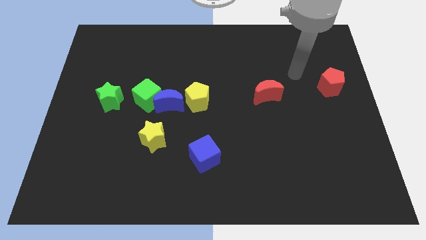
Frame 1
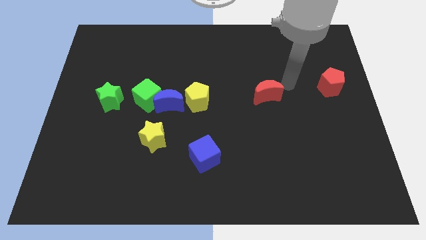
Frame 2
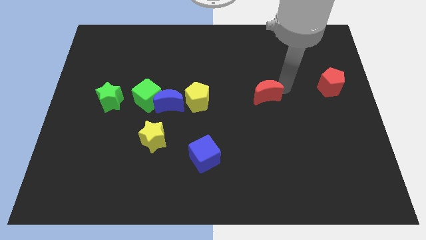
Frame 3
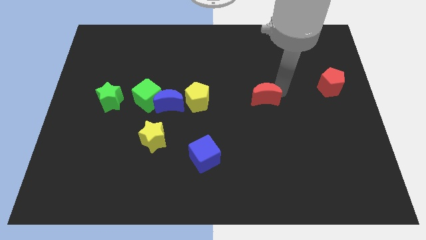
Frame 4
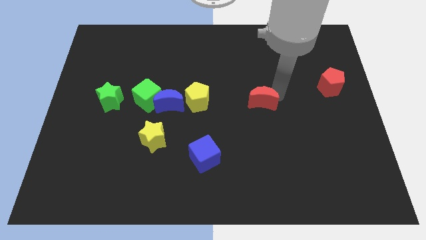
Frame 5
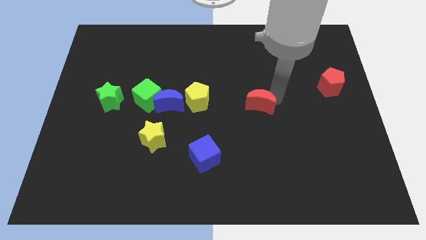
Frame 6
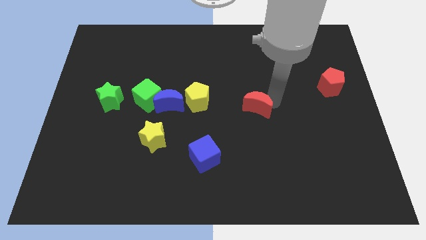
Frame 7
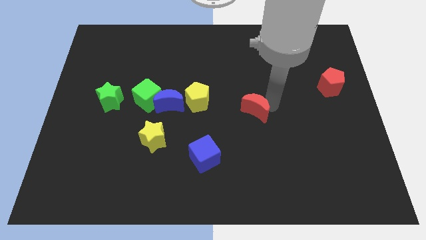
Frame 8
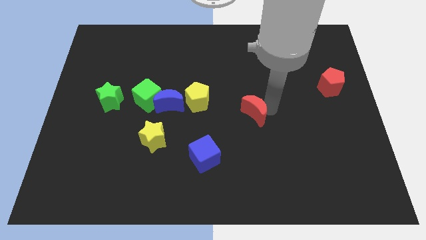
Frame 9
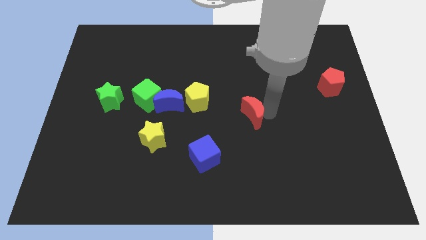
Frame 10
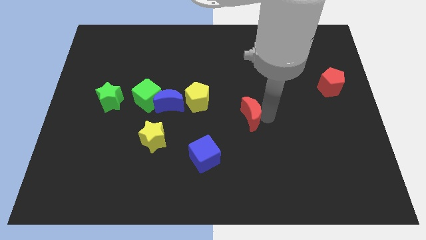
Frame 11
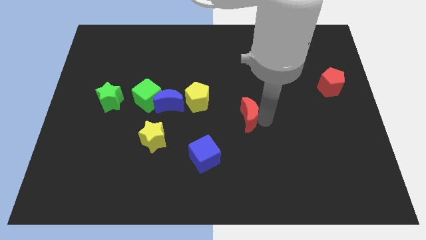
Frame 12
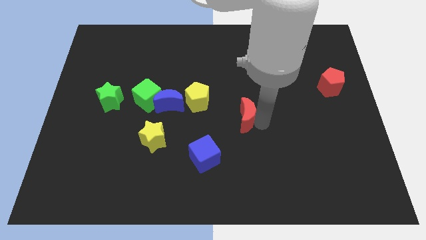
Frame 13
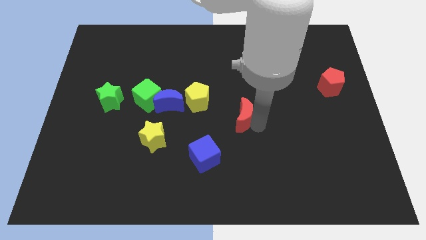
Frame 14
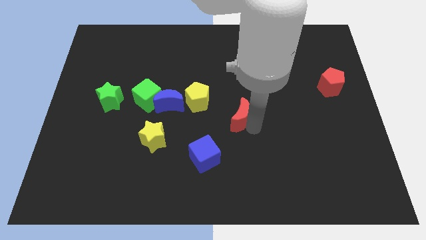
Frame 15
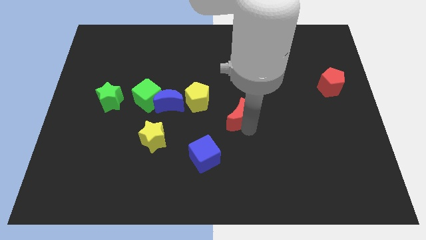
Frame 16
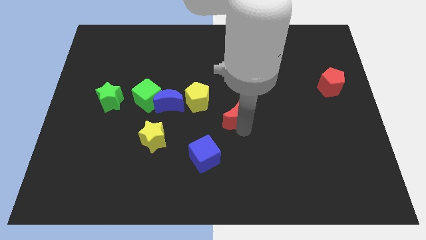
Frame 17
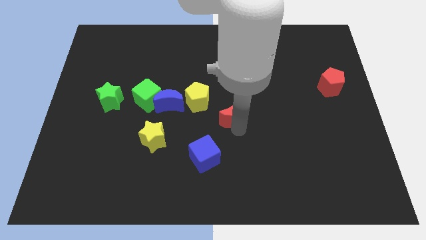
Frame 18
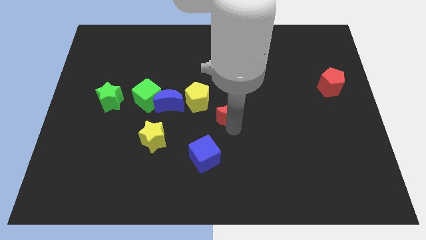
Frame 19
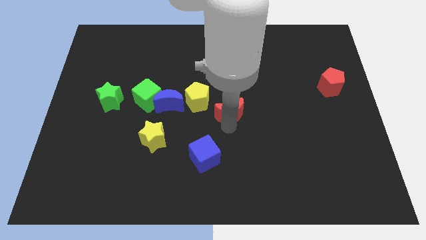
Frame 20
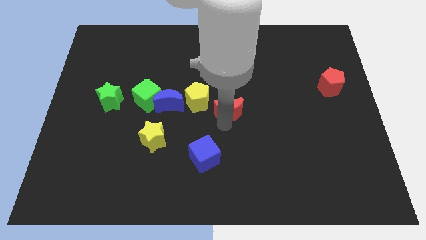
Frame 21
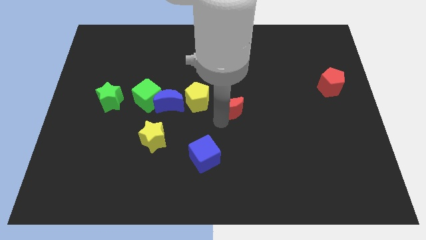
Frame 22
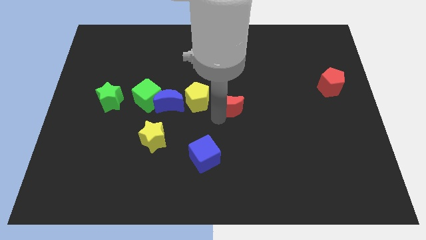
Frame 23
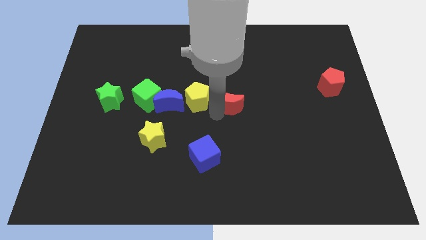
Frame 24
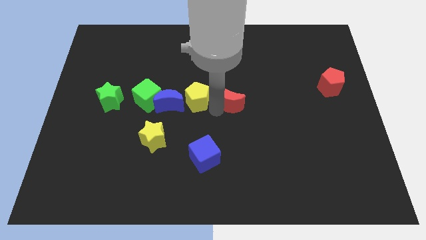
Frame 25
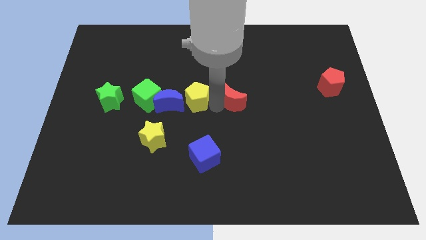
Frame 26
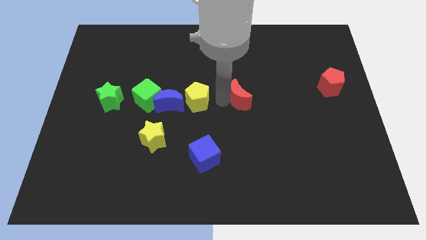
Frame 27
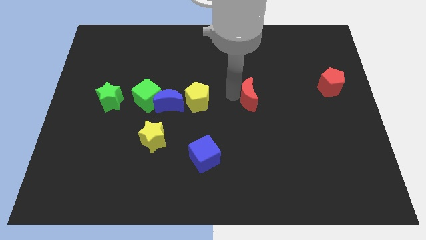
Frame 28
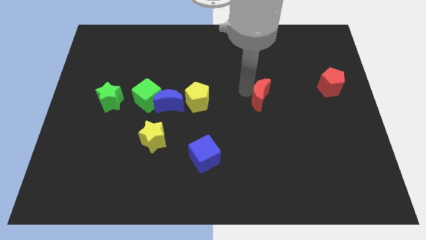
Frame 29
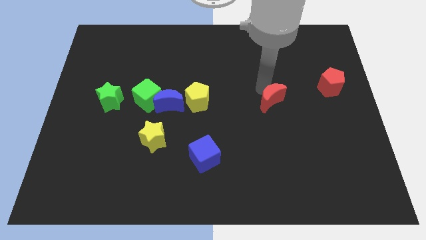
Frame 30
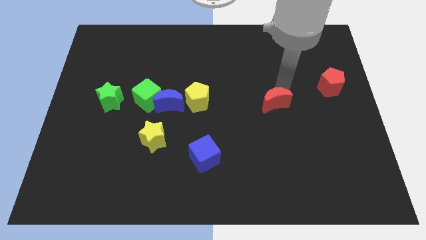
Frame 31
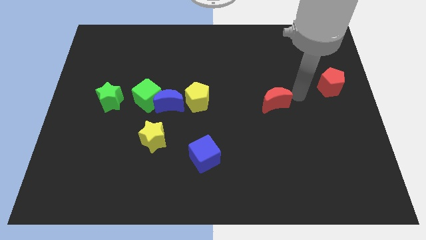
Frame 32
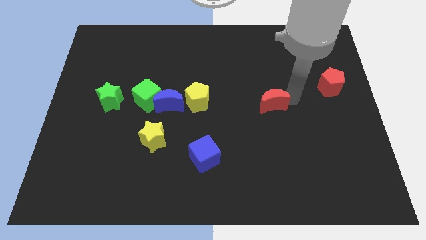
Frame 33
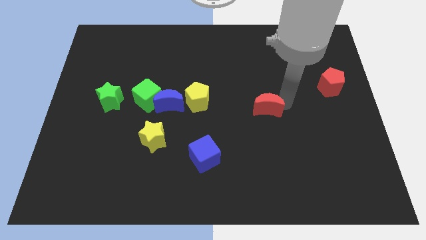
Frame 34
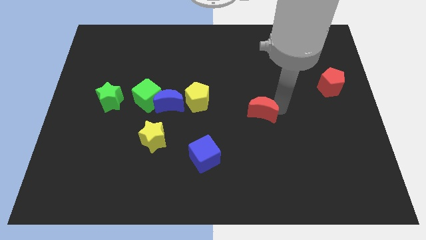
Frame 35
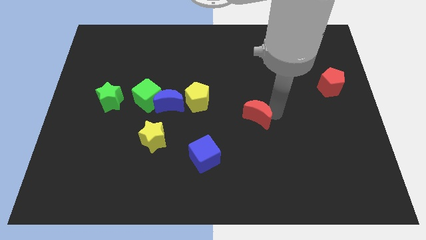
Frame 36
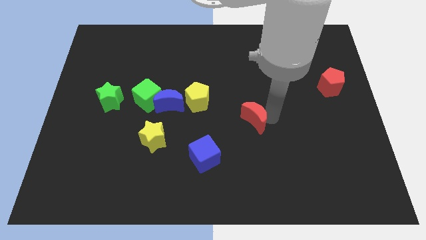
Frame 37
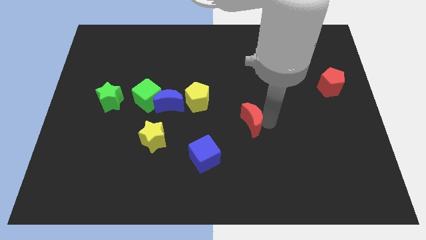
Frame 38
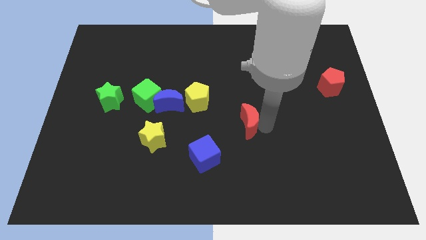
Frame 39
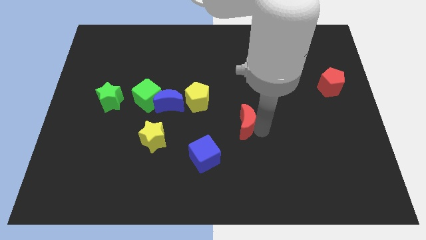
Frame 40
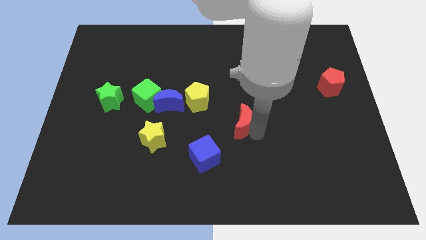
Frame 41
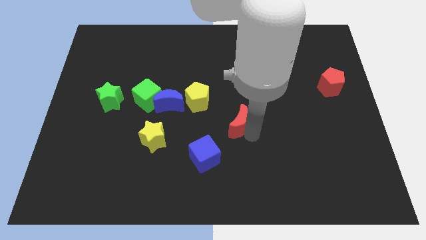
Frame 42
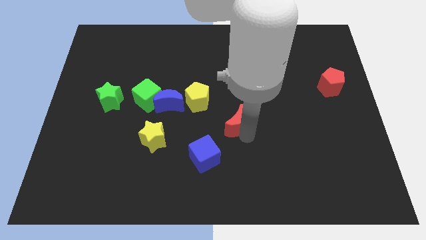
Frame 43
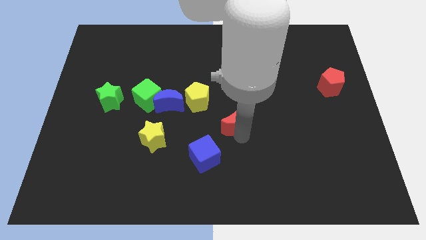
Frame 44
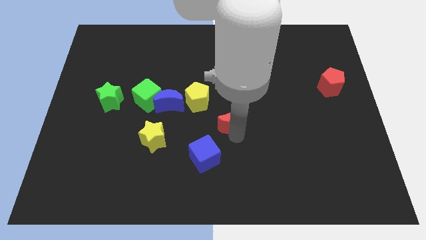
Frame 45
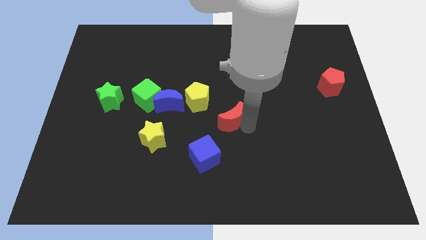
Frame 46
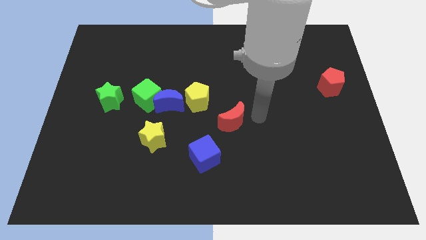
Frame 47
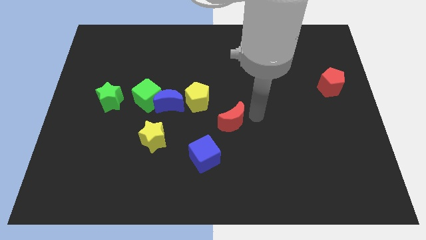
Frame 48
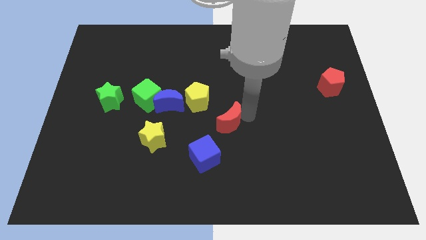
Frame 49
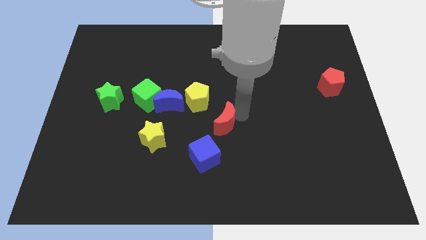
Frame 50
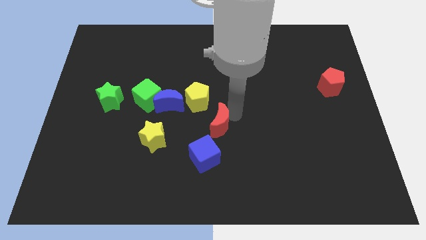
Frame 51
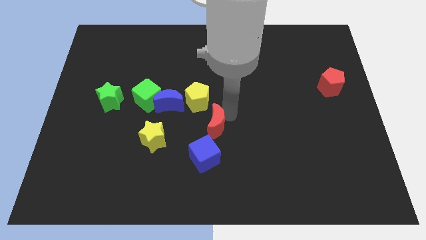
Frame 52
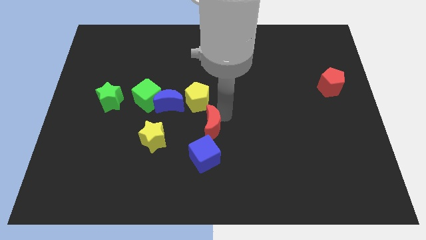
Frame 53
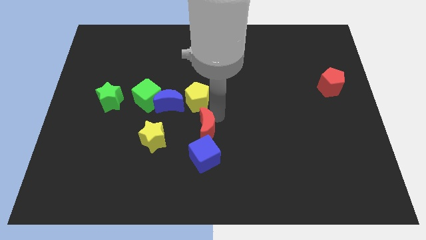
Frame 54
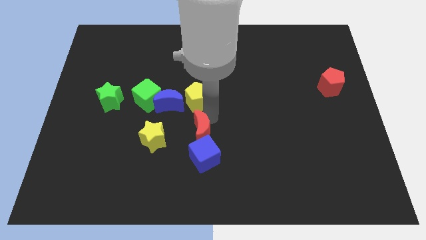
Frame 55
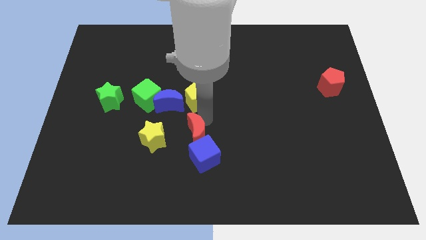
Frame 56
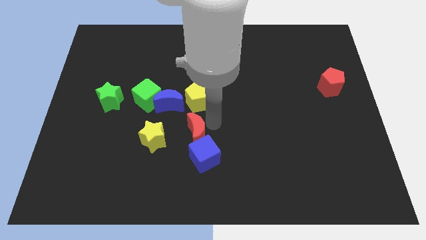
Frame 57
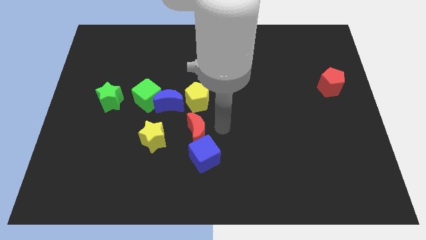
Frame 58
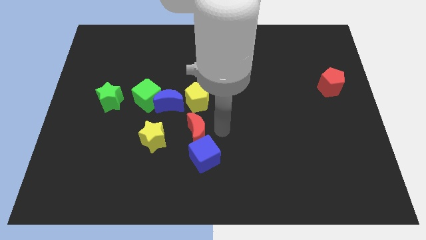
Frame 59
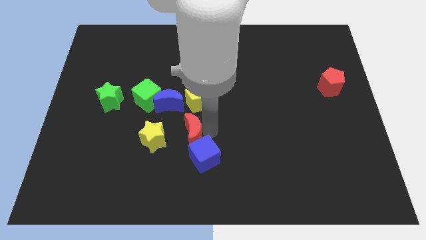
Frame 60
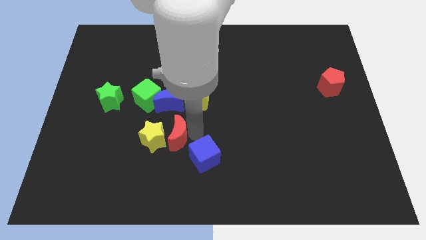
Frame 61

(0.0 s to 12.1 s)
slide the red moon towards the yellow star

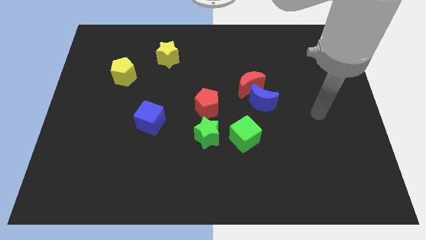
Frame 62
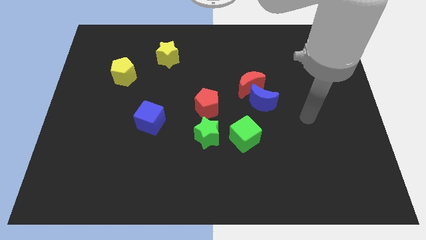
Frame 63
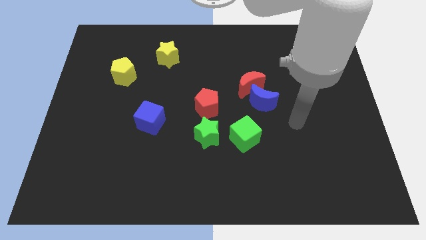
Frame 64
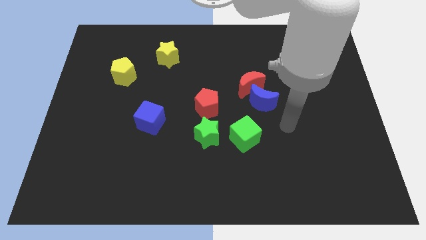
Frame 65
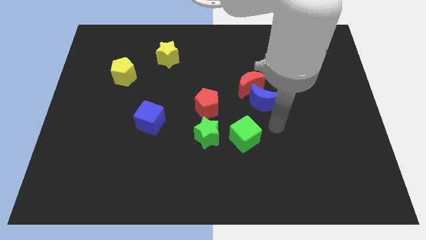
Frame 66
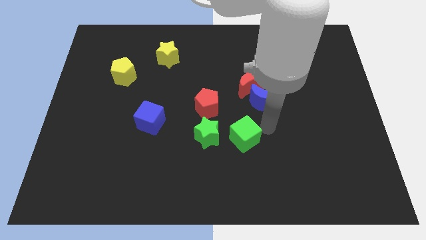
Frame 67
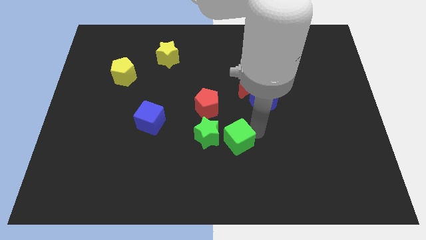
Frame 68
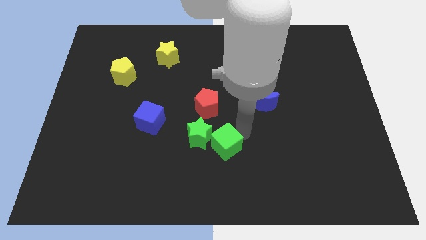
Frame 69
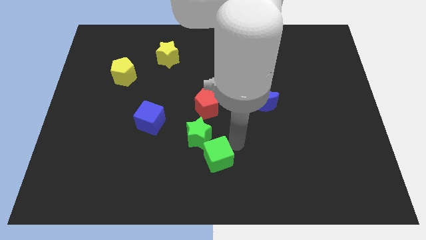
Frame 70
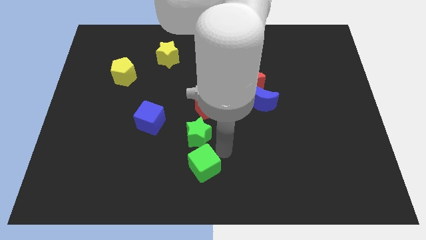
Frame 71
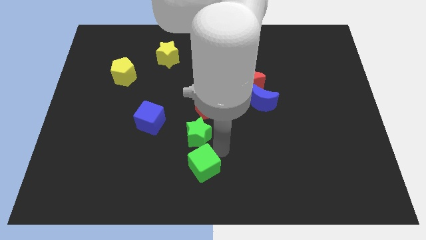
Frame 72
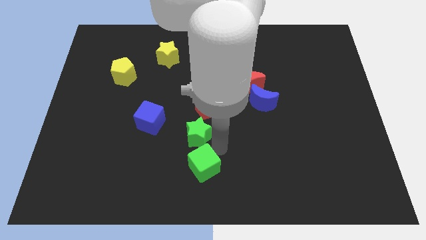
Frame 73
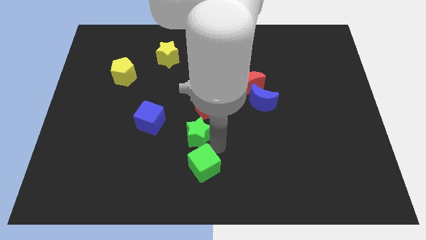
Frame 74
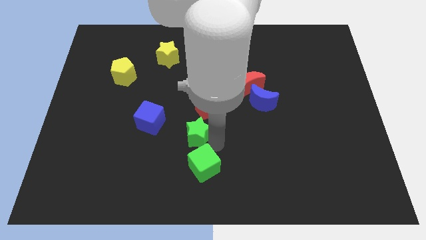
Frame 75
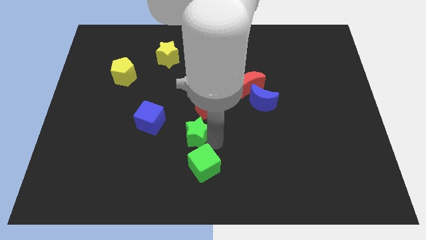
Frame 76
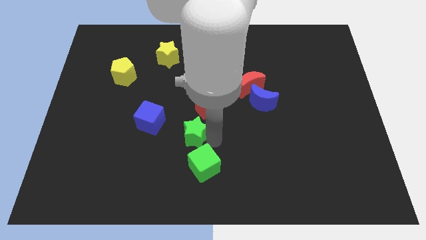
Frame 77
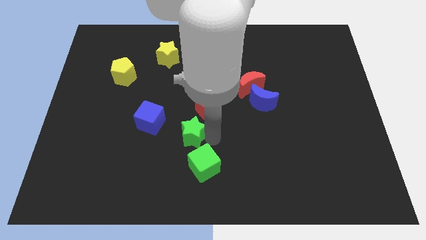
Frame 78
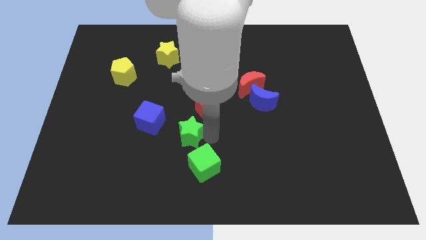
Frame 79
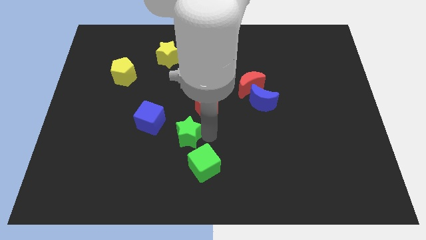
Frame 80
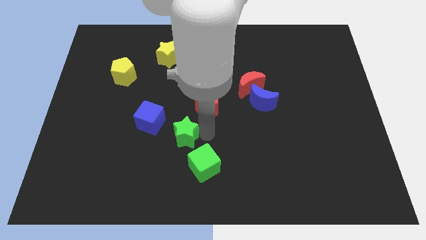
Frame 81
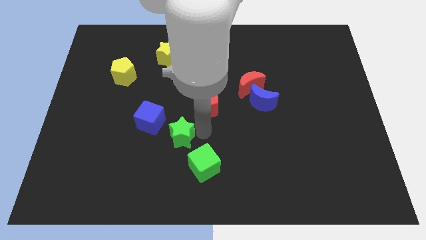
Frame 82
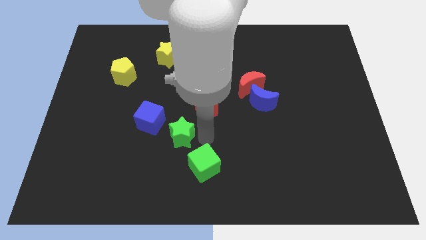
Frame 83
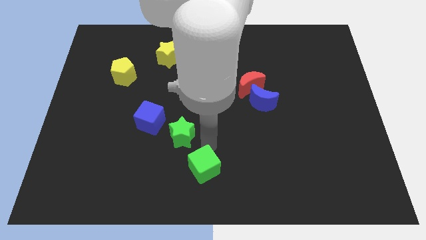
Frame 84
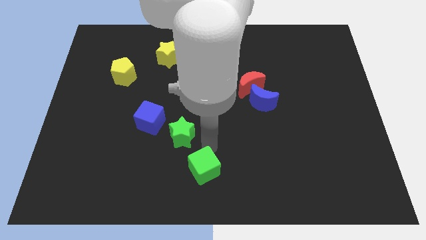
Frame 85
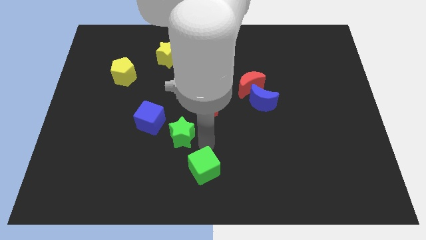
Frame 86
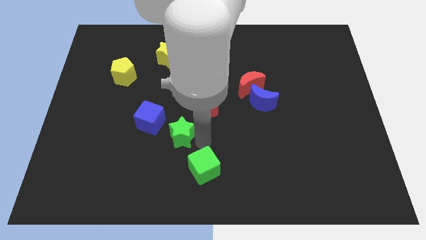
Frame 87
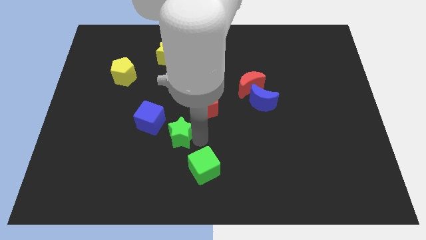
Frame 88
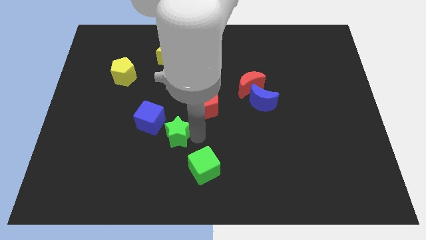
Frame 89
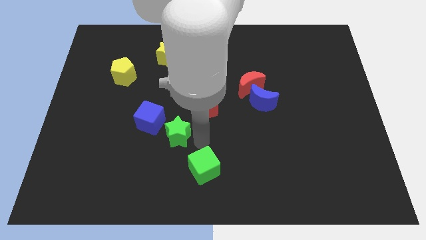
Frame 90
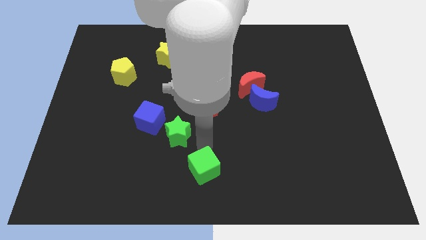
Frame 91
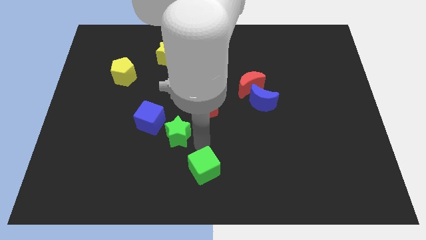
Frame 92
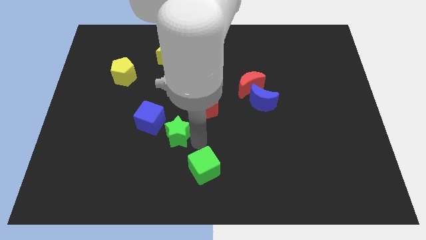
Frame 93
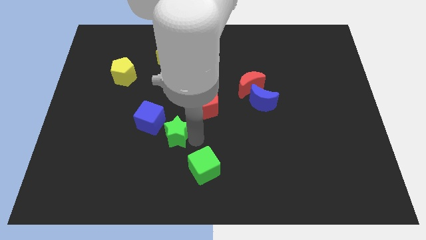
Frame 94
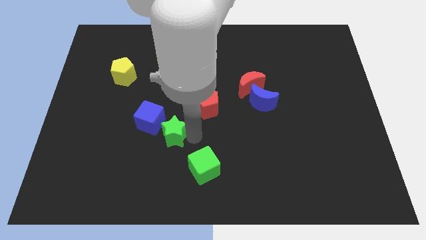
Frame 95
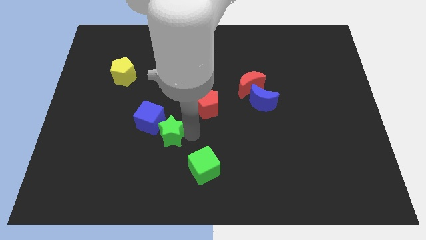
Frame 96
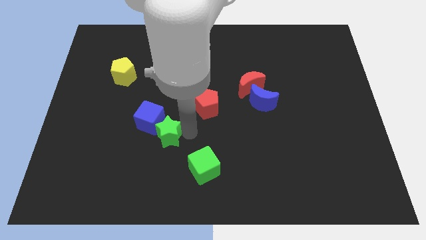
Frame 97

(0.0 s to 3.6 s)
push the green star close to the blue cube
